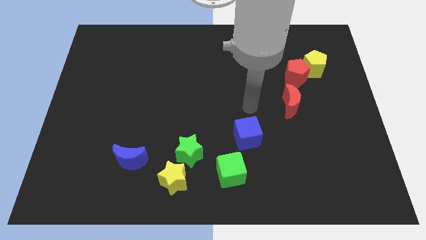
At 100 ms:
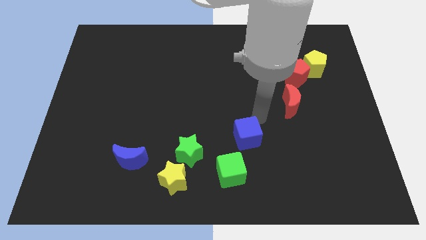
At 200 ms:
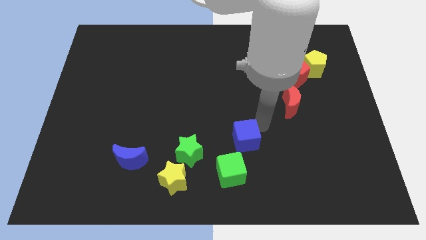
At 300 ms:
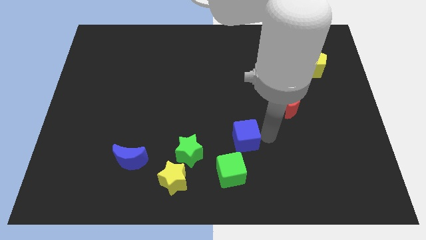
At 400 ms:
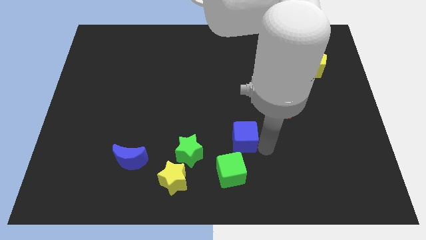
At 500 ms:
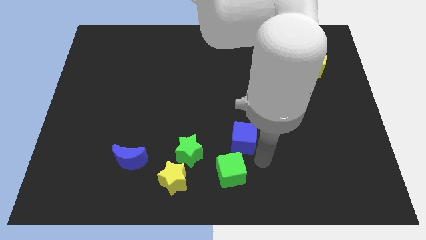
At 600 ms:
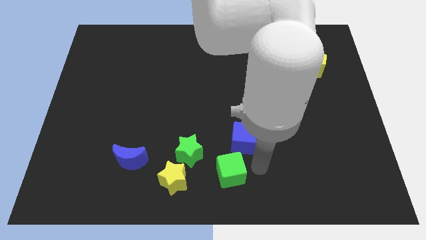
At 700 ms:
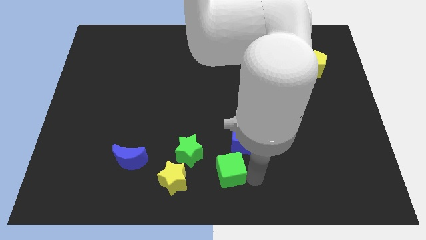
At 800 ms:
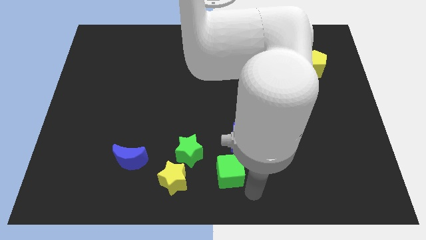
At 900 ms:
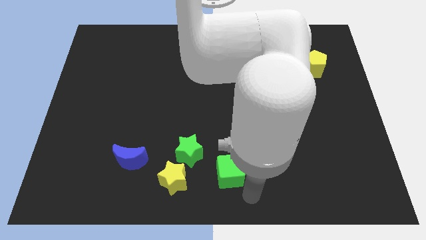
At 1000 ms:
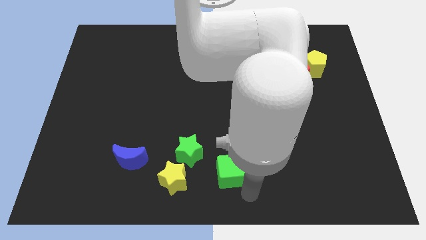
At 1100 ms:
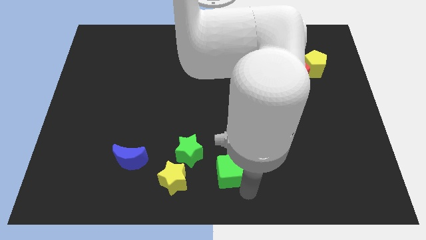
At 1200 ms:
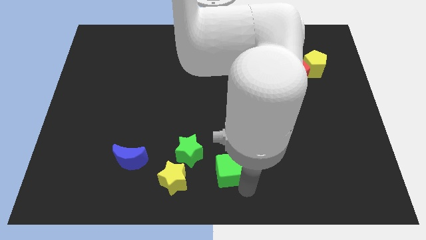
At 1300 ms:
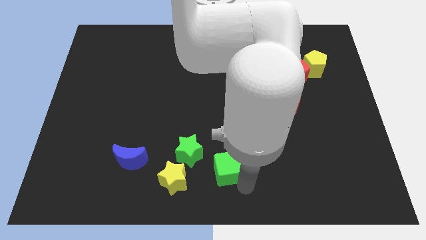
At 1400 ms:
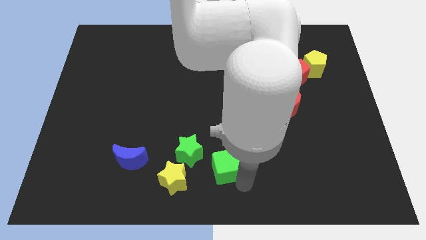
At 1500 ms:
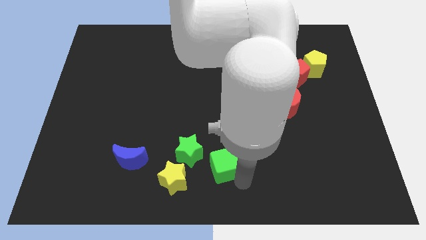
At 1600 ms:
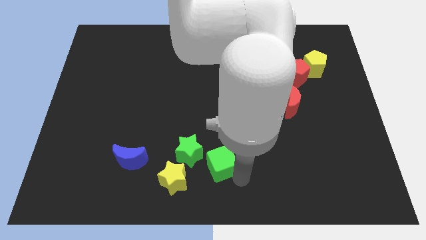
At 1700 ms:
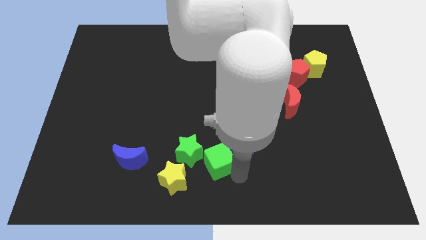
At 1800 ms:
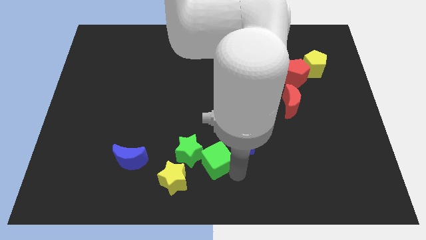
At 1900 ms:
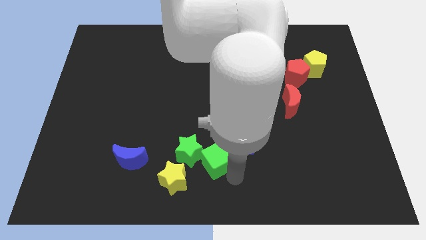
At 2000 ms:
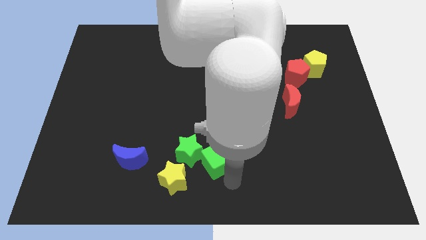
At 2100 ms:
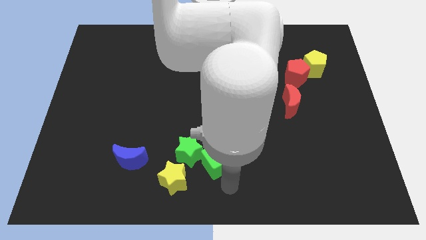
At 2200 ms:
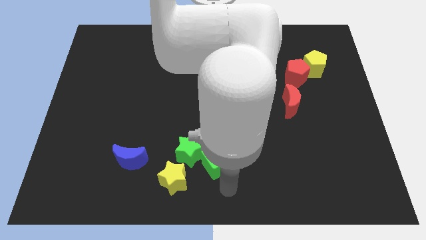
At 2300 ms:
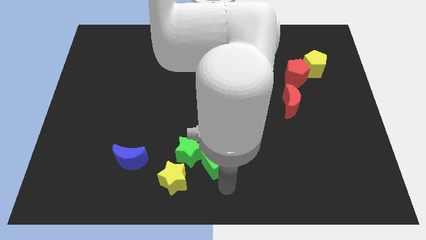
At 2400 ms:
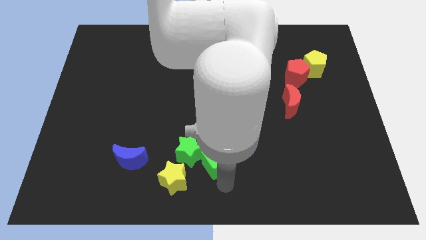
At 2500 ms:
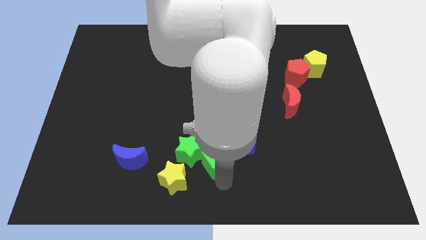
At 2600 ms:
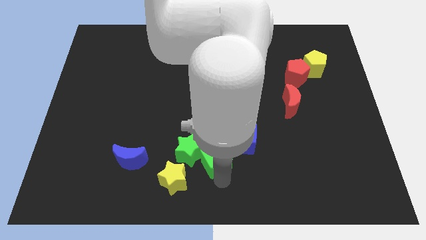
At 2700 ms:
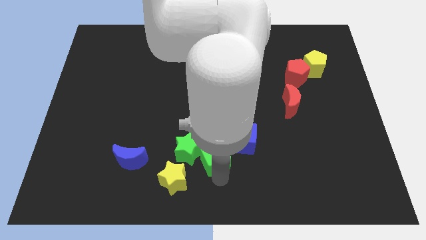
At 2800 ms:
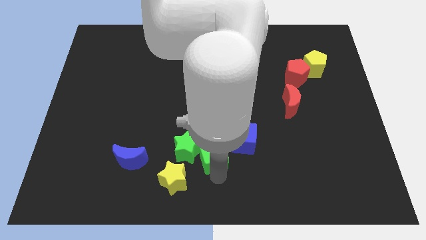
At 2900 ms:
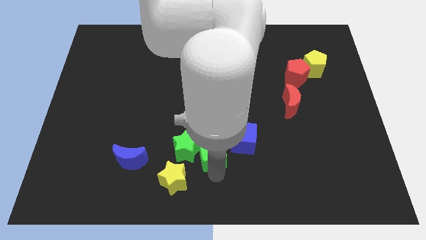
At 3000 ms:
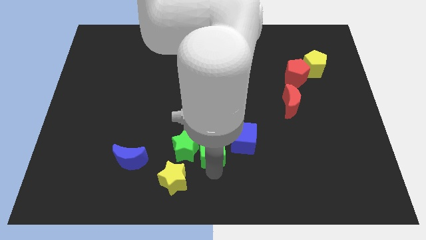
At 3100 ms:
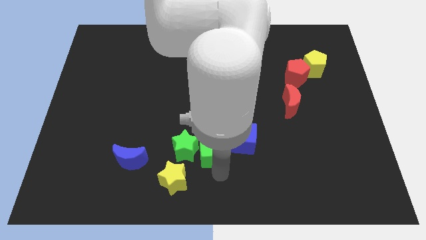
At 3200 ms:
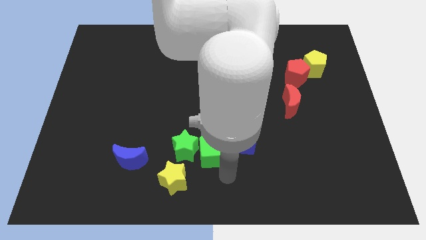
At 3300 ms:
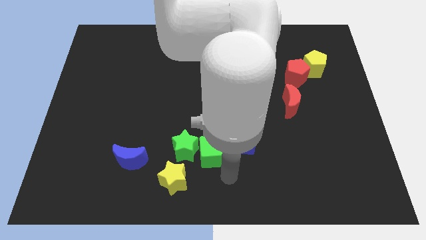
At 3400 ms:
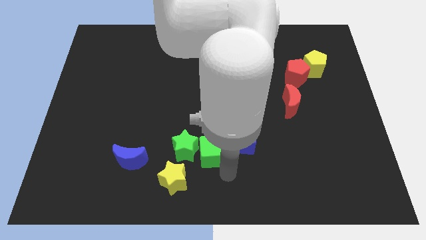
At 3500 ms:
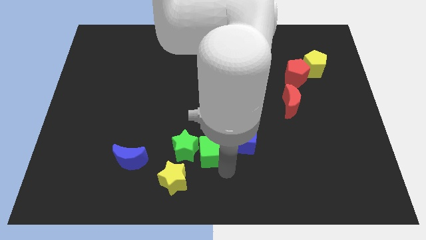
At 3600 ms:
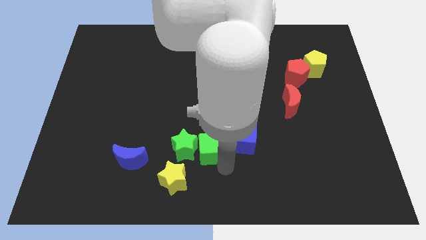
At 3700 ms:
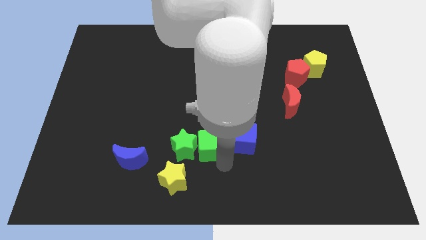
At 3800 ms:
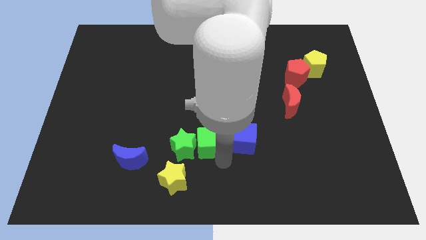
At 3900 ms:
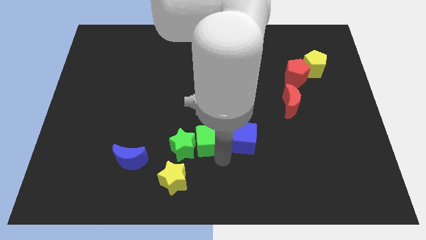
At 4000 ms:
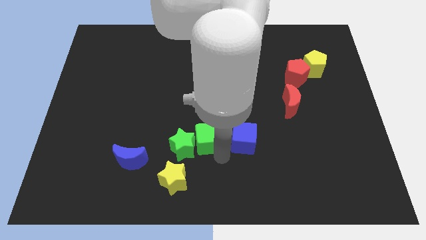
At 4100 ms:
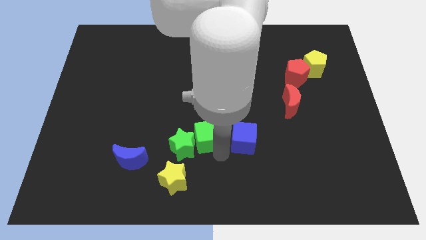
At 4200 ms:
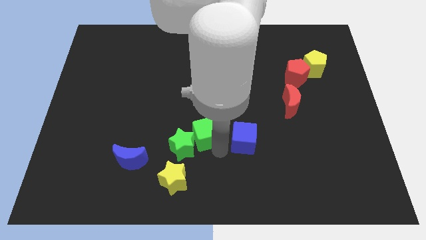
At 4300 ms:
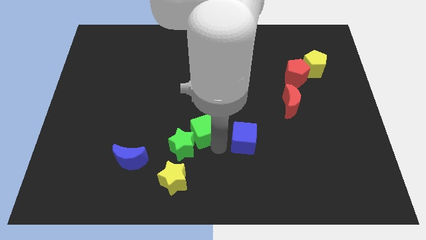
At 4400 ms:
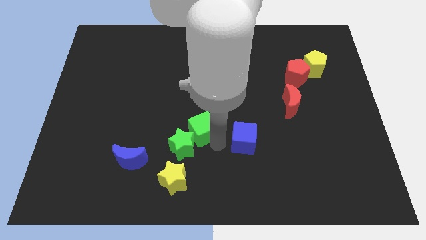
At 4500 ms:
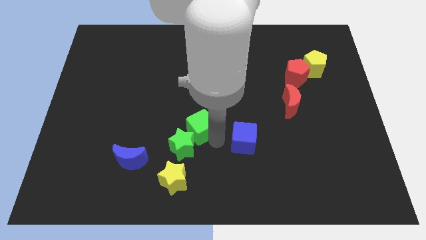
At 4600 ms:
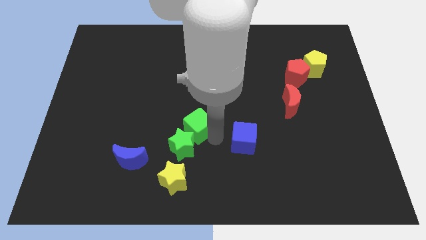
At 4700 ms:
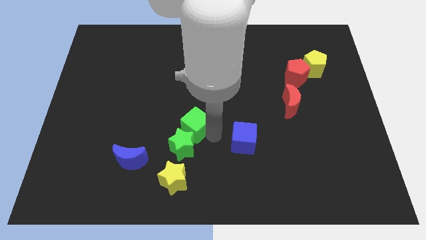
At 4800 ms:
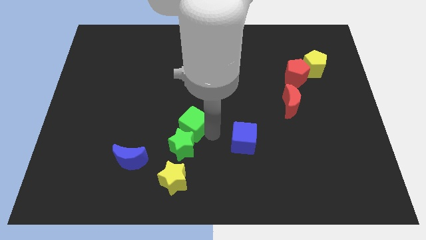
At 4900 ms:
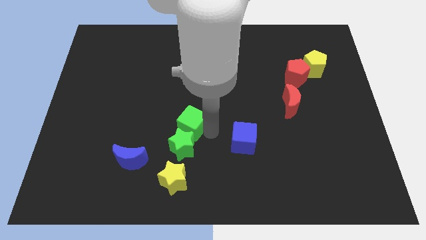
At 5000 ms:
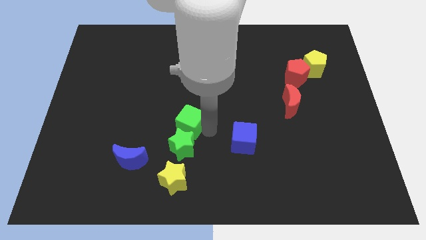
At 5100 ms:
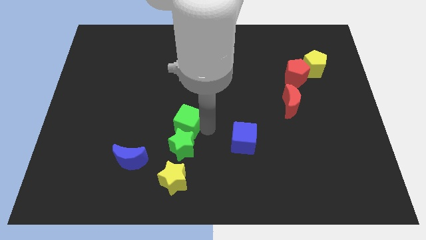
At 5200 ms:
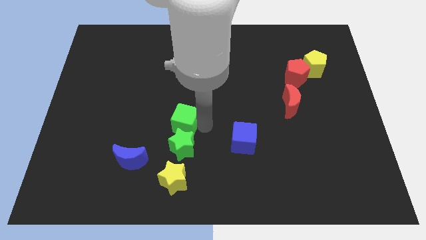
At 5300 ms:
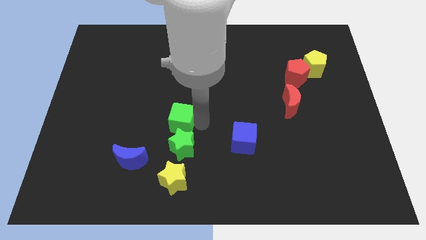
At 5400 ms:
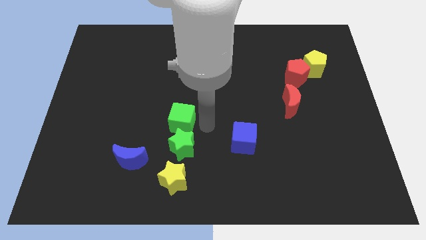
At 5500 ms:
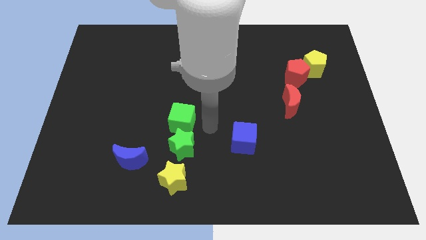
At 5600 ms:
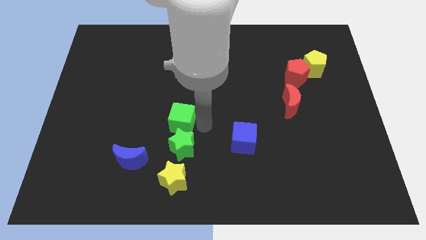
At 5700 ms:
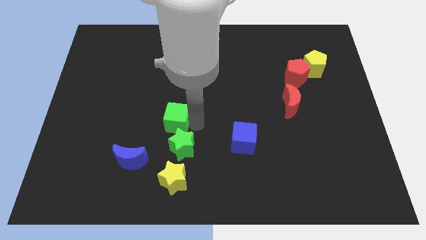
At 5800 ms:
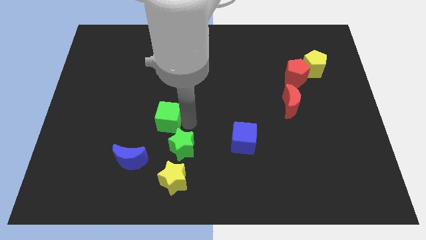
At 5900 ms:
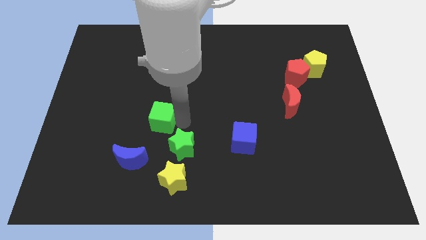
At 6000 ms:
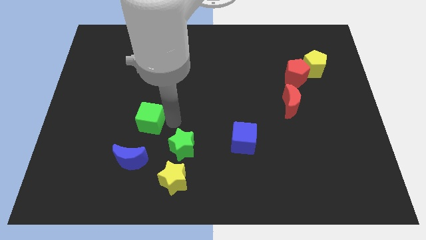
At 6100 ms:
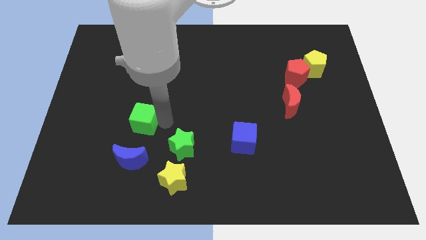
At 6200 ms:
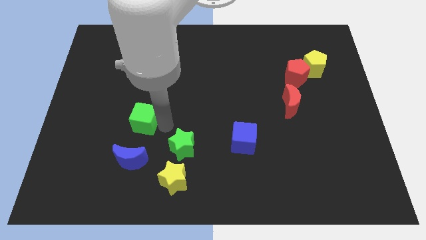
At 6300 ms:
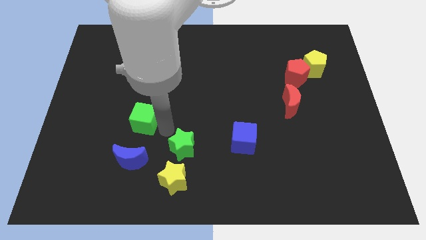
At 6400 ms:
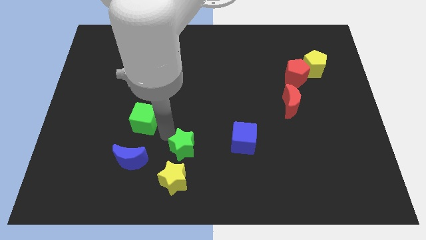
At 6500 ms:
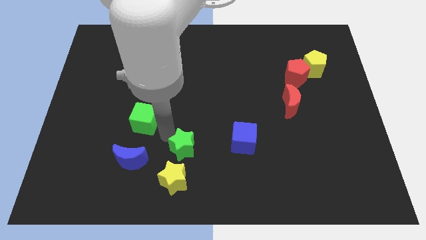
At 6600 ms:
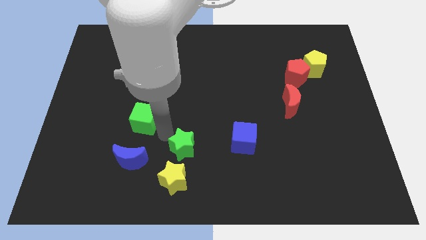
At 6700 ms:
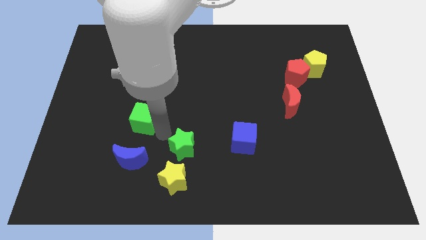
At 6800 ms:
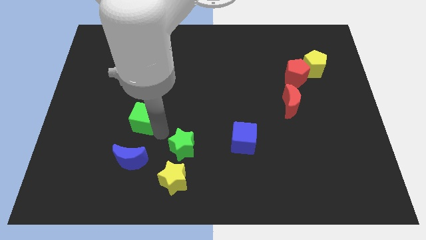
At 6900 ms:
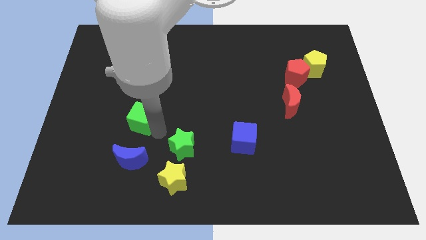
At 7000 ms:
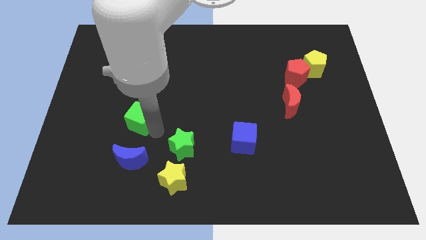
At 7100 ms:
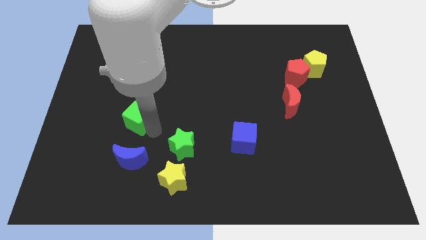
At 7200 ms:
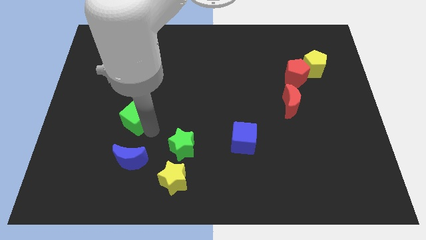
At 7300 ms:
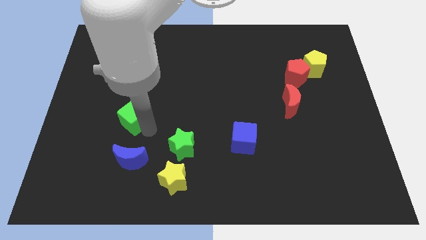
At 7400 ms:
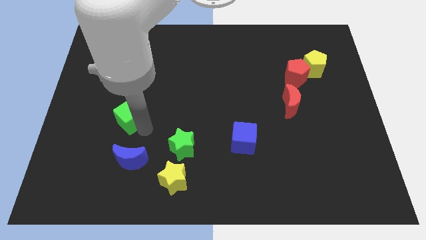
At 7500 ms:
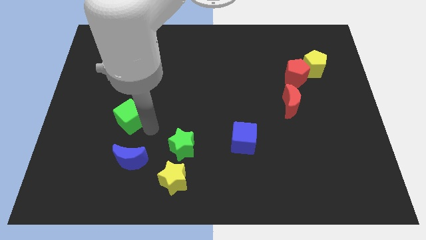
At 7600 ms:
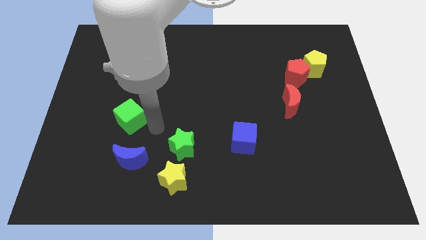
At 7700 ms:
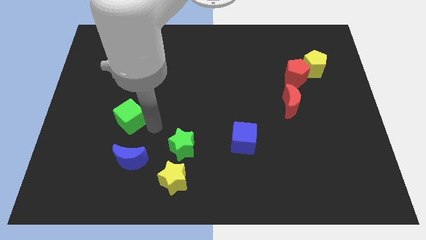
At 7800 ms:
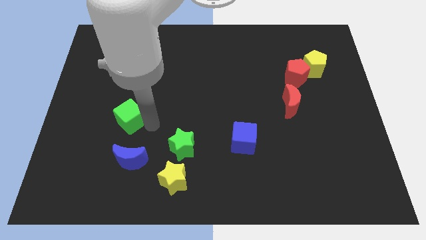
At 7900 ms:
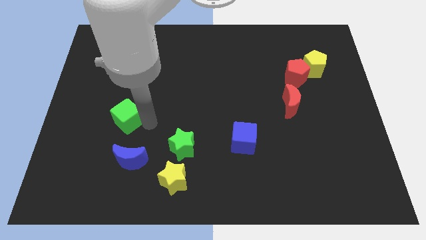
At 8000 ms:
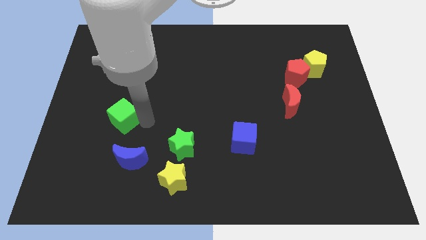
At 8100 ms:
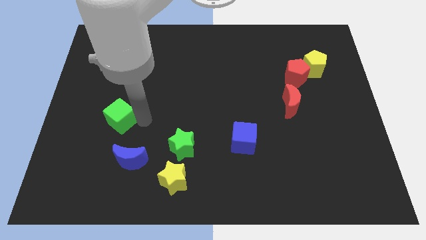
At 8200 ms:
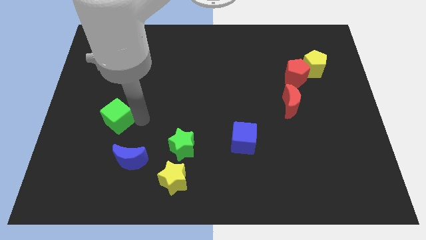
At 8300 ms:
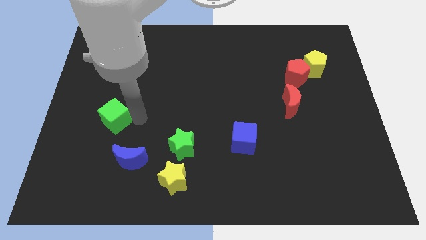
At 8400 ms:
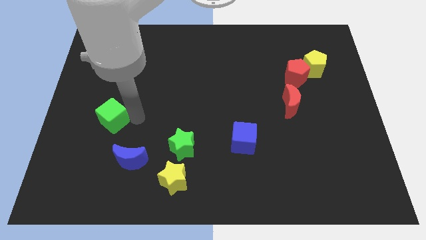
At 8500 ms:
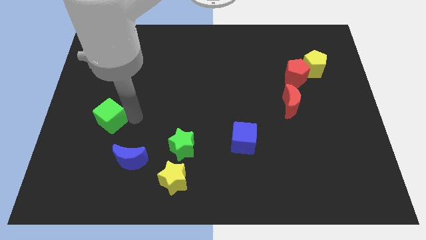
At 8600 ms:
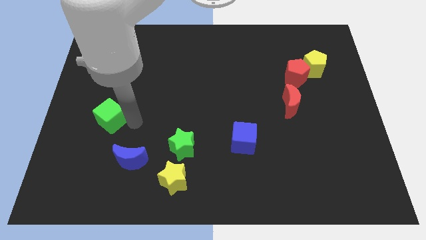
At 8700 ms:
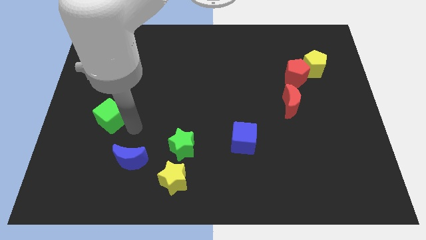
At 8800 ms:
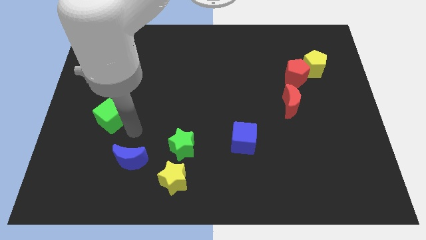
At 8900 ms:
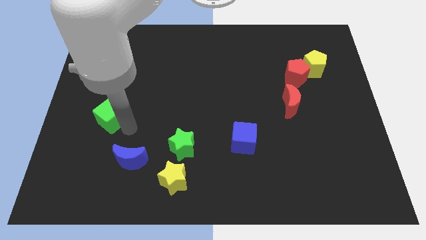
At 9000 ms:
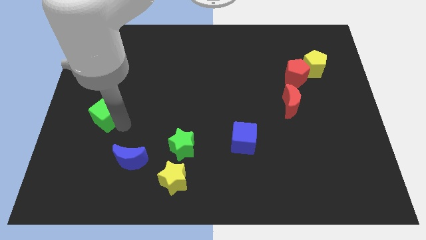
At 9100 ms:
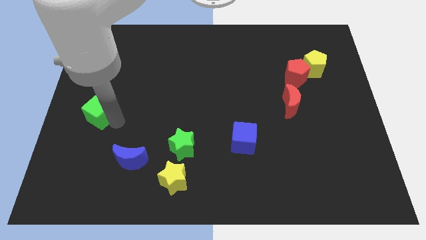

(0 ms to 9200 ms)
push the green cube to the left side
